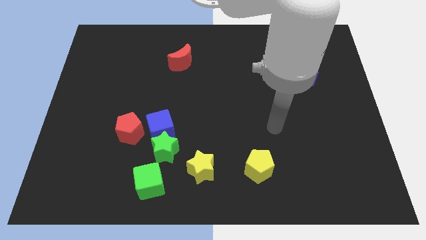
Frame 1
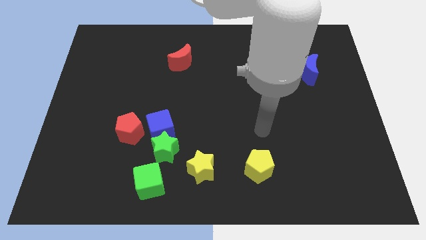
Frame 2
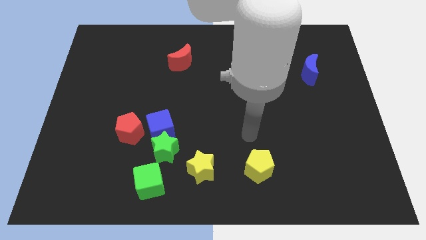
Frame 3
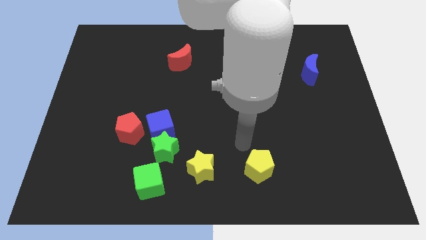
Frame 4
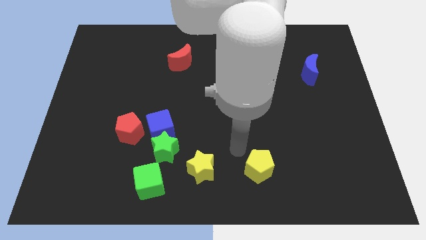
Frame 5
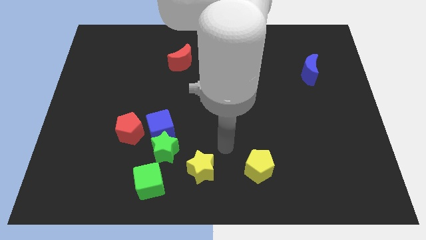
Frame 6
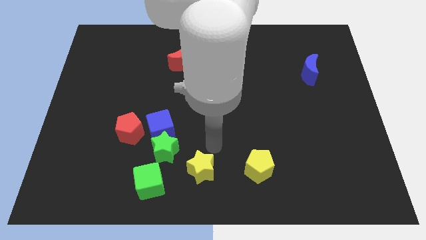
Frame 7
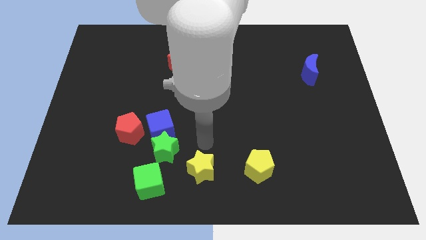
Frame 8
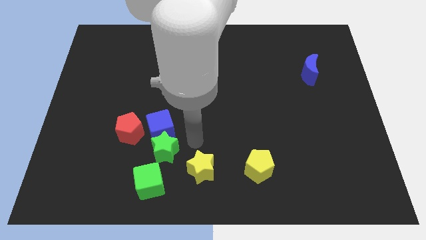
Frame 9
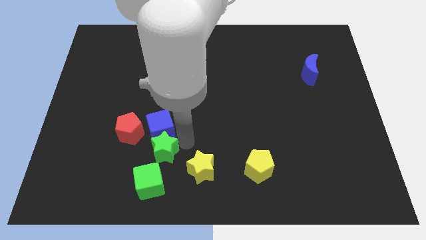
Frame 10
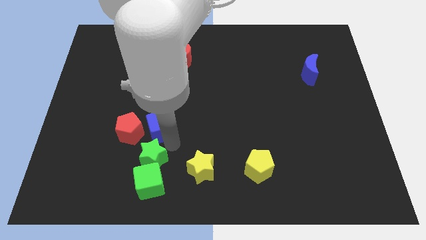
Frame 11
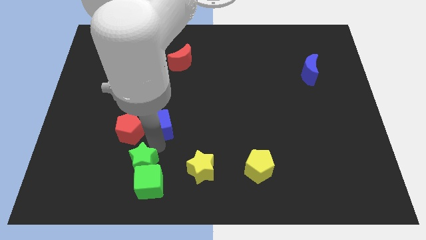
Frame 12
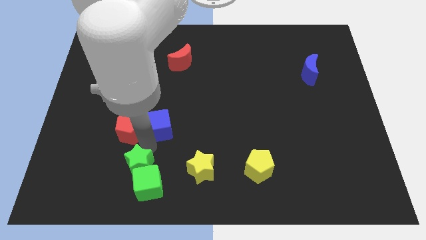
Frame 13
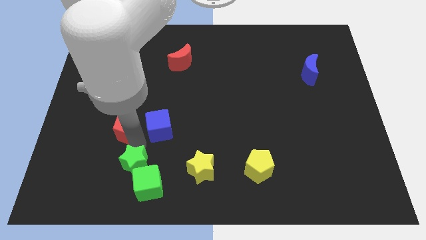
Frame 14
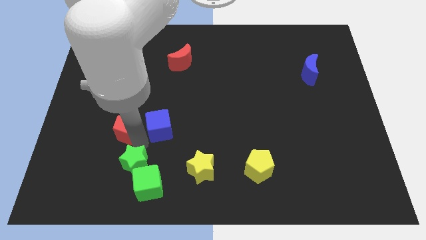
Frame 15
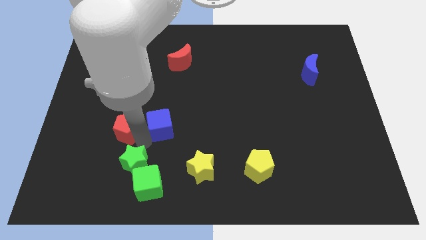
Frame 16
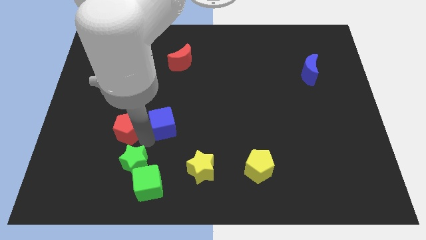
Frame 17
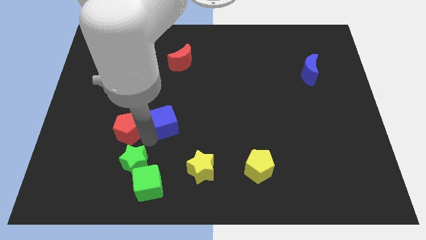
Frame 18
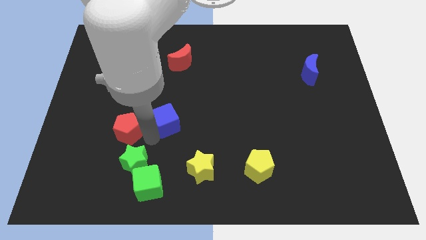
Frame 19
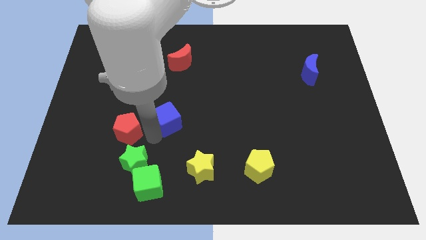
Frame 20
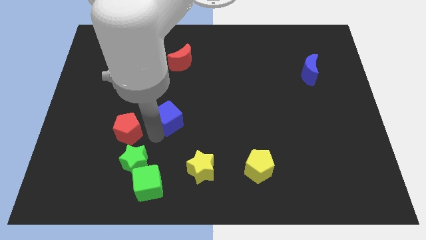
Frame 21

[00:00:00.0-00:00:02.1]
separate the blue cube from the green star and red pentagon

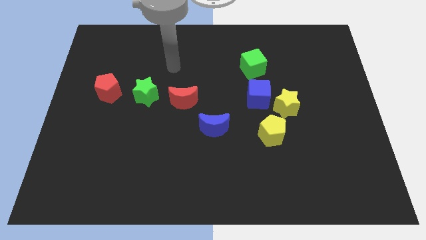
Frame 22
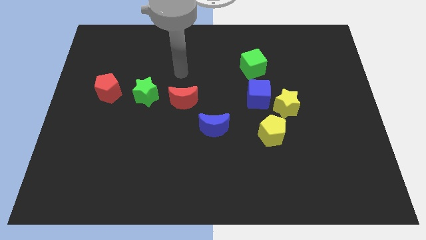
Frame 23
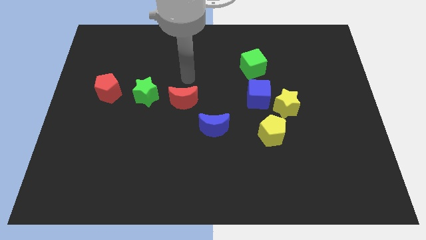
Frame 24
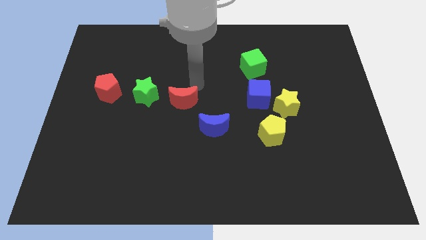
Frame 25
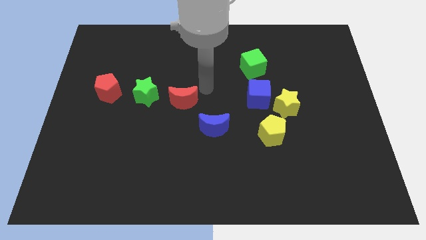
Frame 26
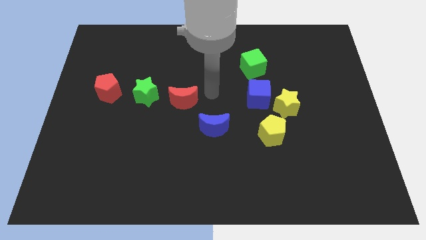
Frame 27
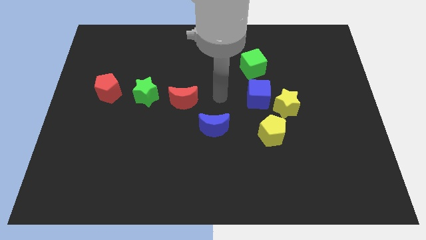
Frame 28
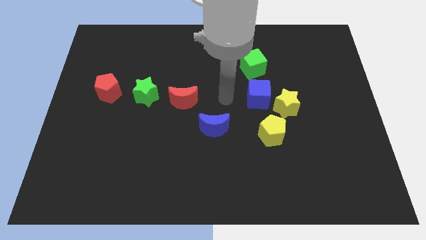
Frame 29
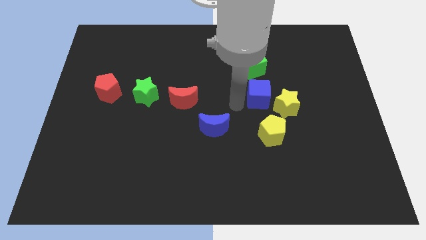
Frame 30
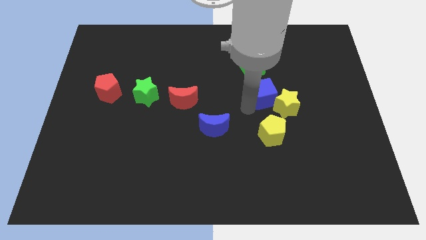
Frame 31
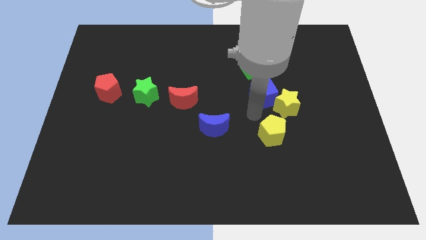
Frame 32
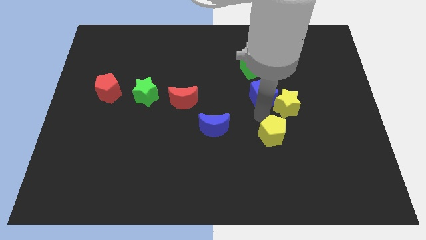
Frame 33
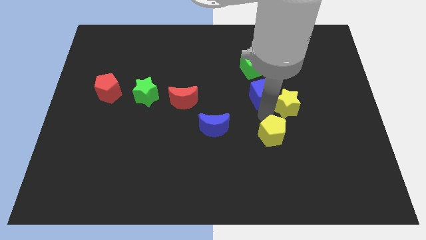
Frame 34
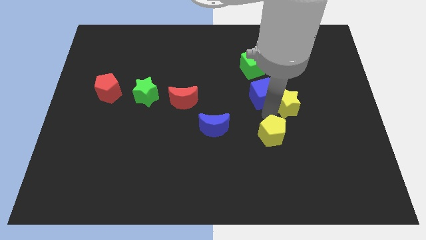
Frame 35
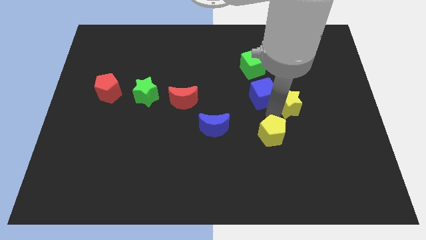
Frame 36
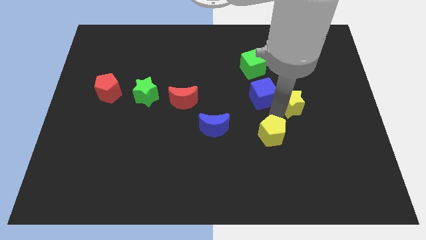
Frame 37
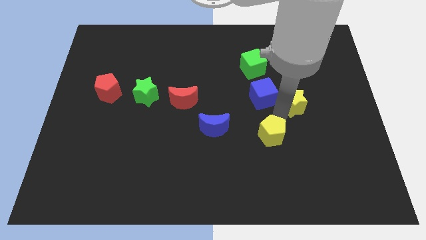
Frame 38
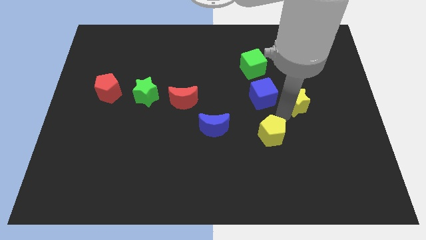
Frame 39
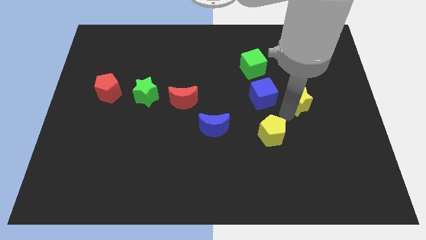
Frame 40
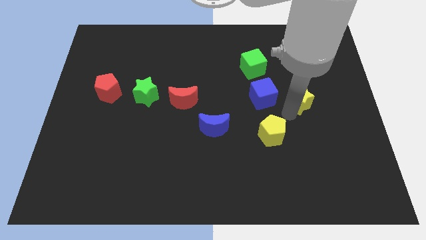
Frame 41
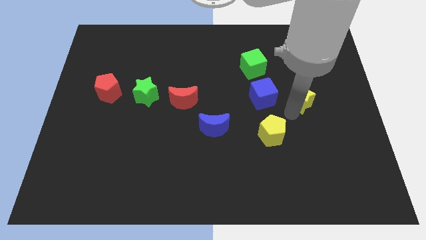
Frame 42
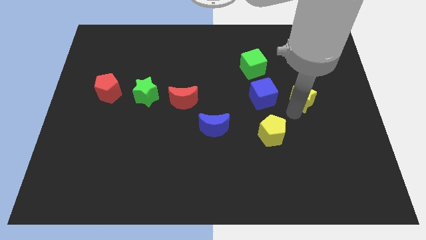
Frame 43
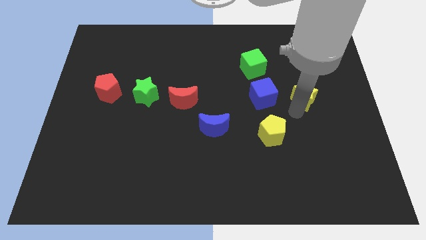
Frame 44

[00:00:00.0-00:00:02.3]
pull the yellow star apart from the blue cube and yellow pentagon

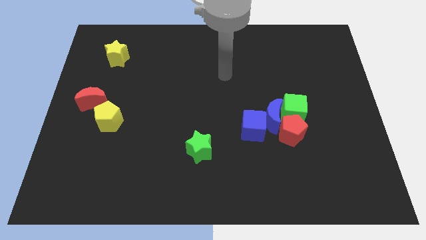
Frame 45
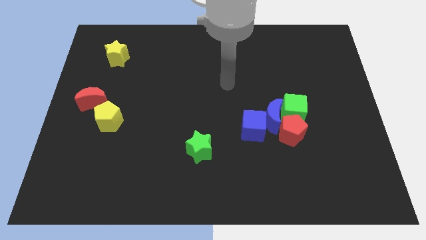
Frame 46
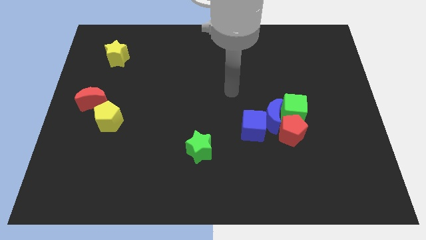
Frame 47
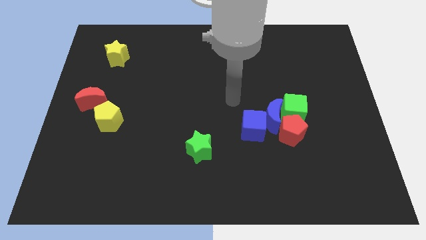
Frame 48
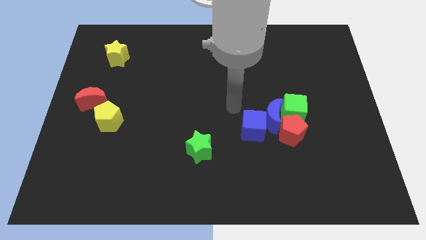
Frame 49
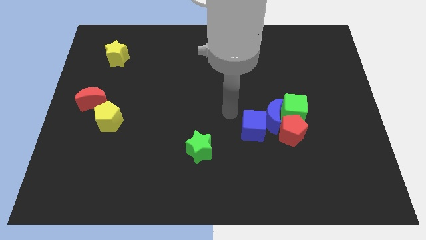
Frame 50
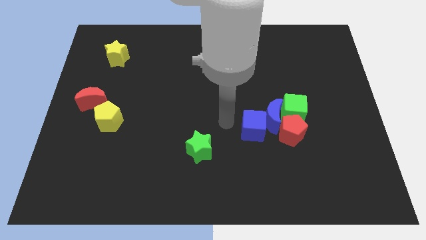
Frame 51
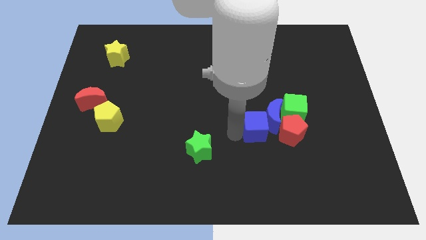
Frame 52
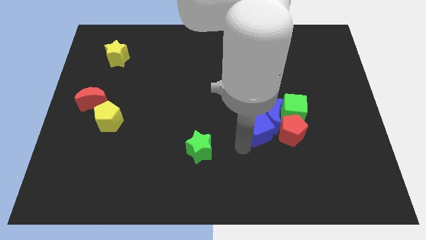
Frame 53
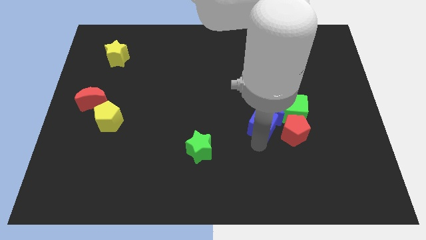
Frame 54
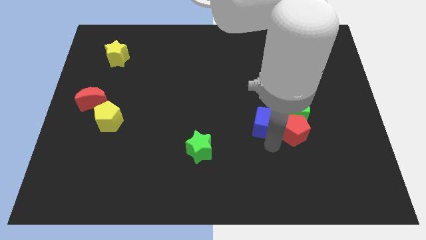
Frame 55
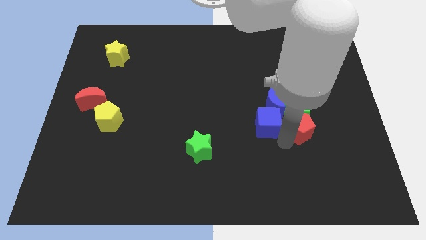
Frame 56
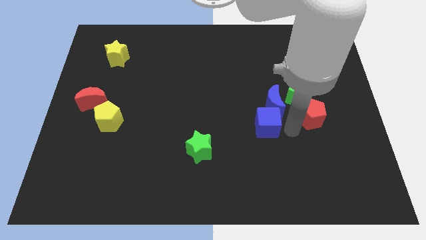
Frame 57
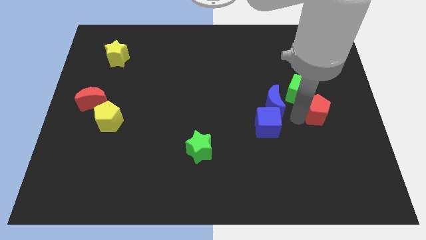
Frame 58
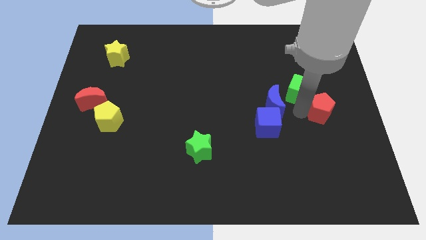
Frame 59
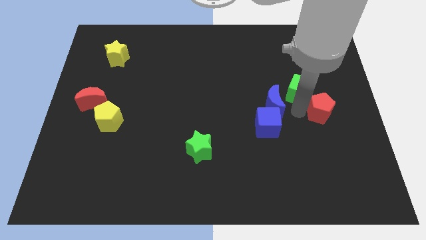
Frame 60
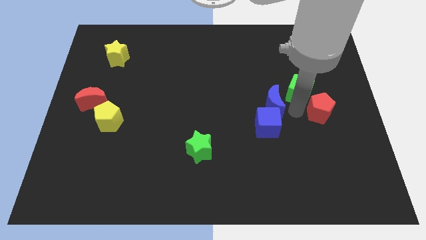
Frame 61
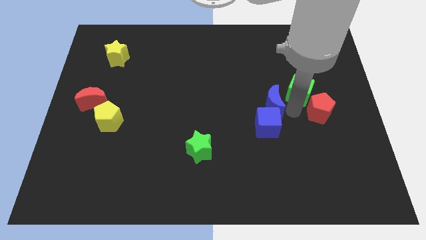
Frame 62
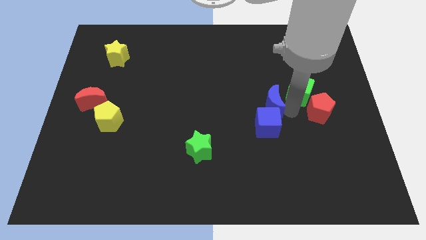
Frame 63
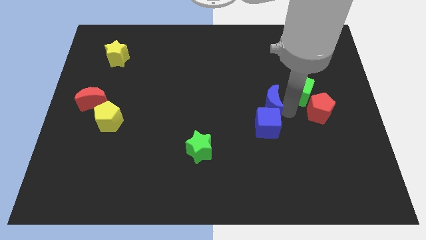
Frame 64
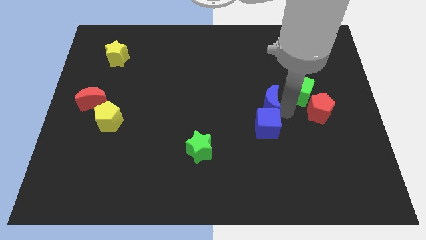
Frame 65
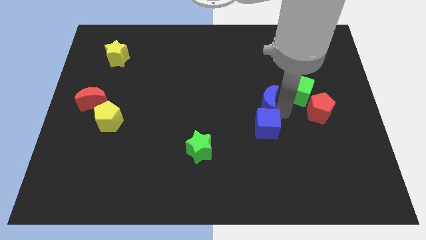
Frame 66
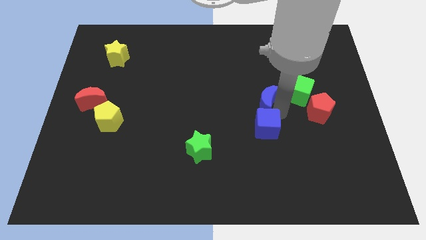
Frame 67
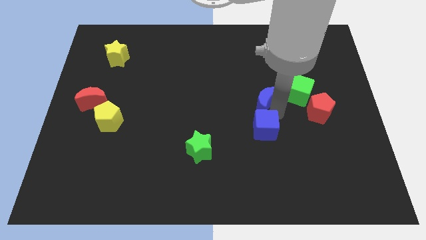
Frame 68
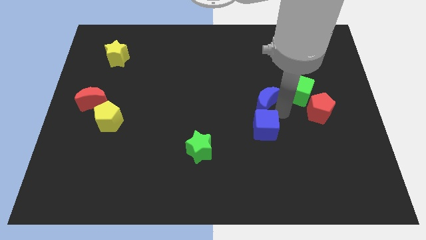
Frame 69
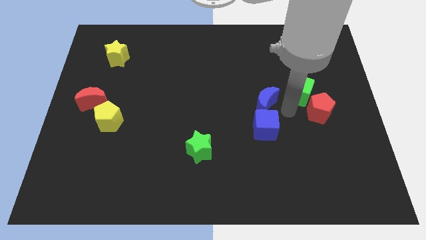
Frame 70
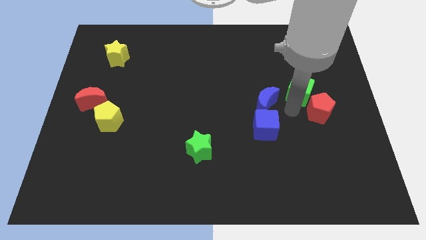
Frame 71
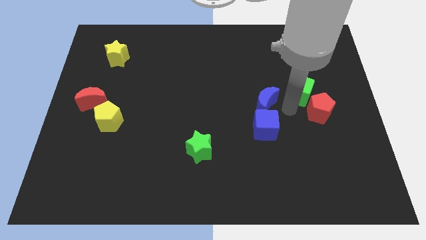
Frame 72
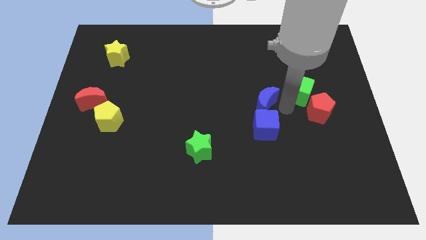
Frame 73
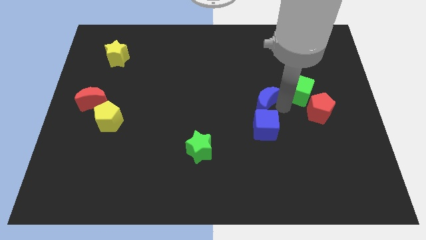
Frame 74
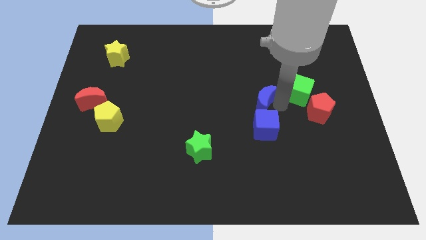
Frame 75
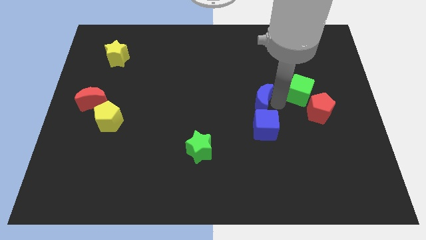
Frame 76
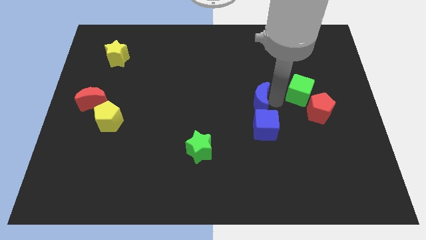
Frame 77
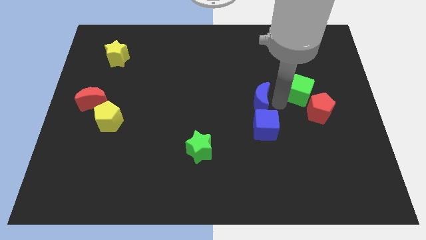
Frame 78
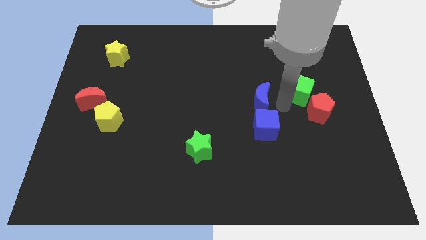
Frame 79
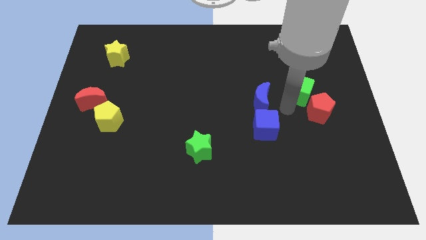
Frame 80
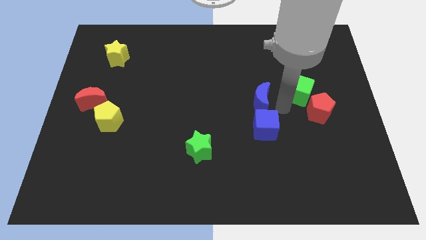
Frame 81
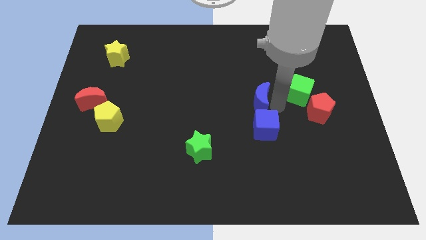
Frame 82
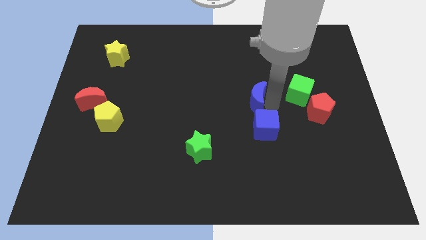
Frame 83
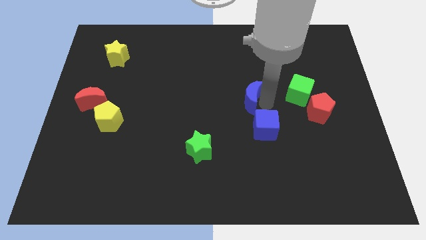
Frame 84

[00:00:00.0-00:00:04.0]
pull the blue moon apart from the group

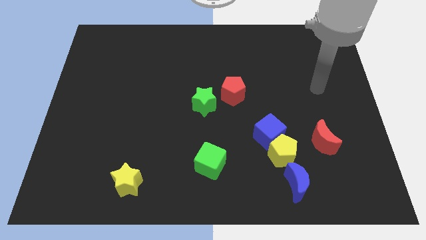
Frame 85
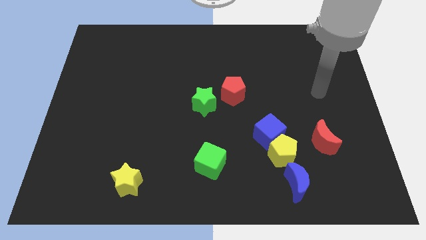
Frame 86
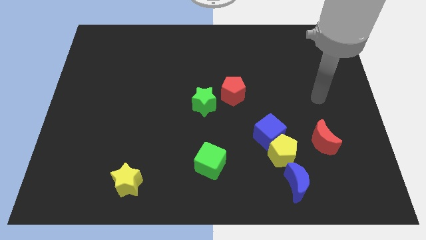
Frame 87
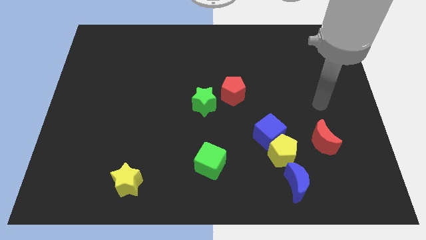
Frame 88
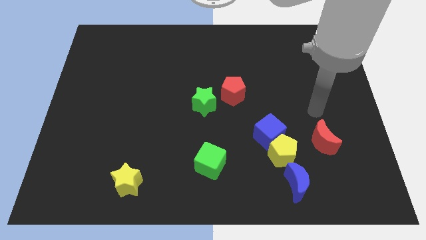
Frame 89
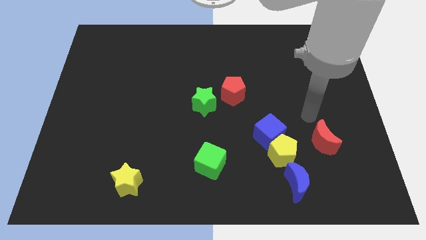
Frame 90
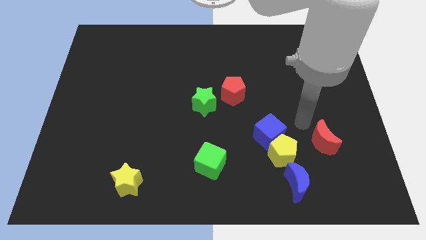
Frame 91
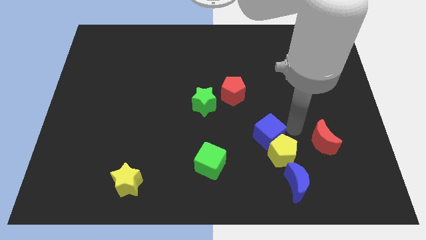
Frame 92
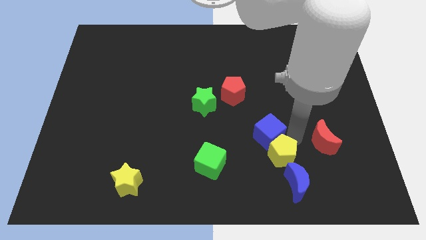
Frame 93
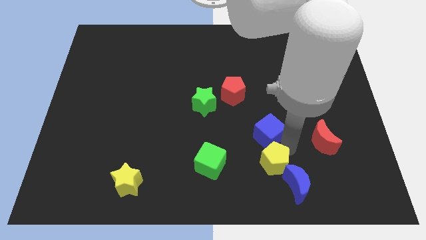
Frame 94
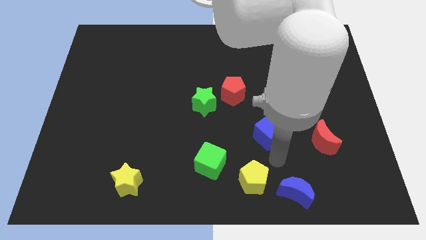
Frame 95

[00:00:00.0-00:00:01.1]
move the blue cube away from the yellow pentagon
